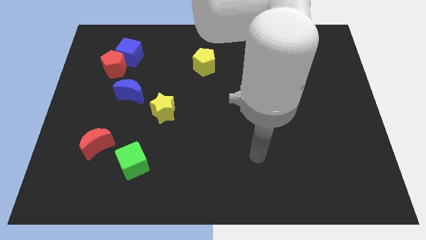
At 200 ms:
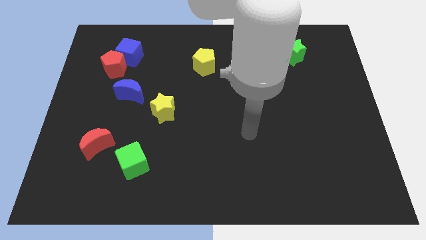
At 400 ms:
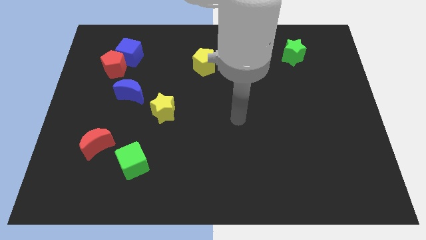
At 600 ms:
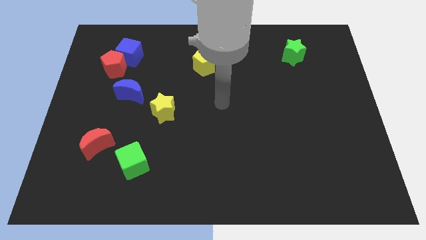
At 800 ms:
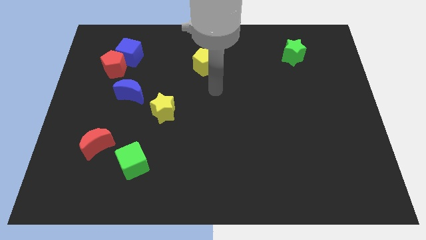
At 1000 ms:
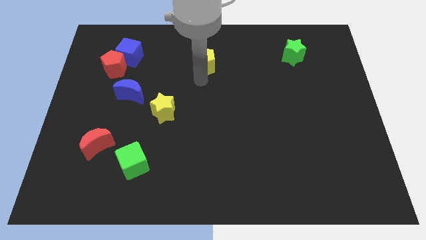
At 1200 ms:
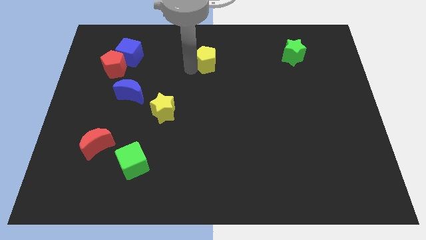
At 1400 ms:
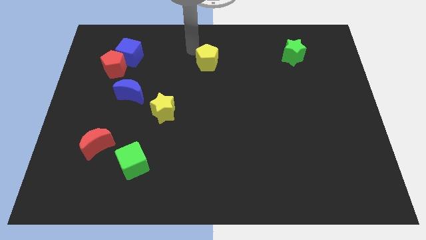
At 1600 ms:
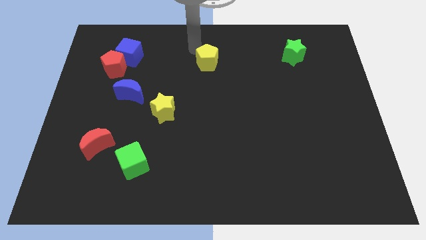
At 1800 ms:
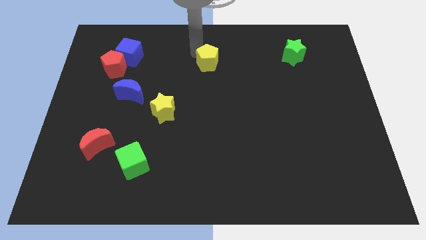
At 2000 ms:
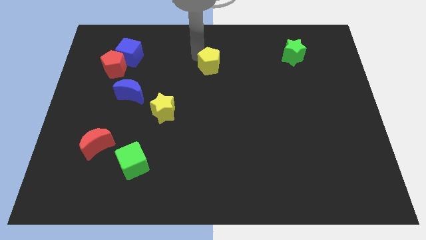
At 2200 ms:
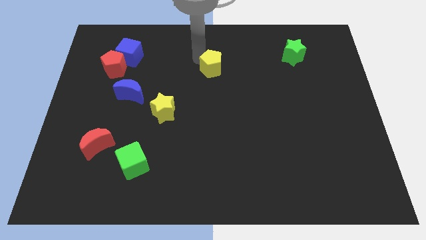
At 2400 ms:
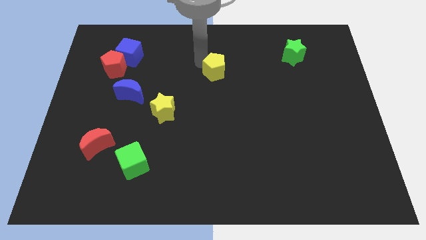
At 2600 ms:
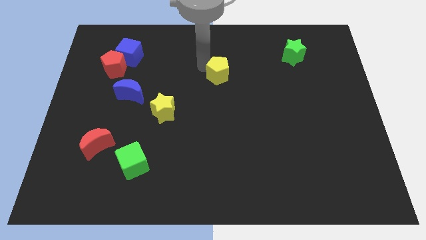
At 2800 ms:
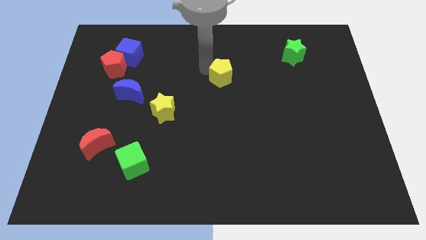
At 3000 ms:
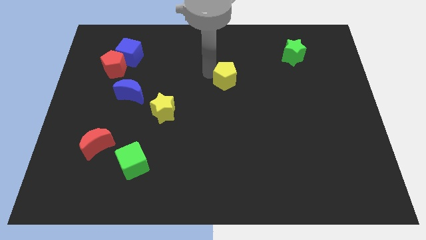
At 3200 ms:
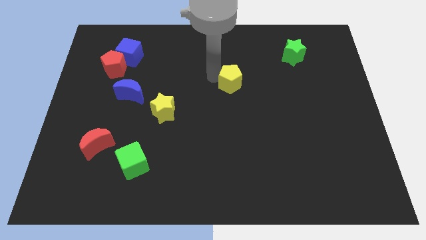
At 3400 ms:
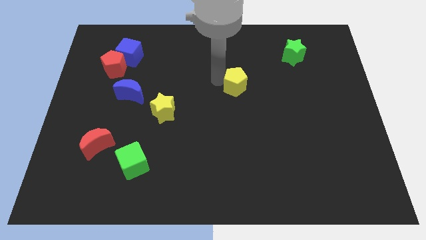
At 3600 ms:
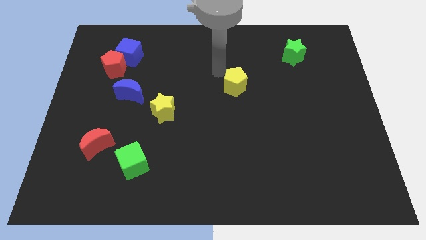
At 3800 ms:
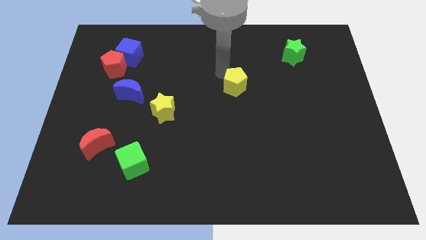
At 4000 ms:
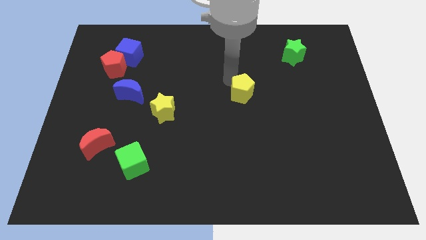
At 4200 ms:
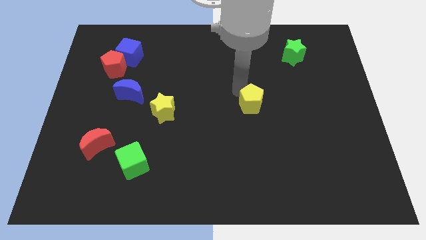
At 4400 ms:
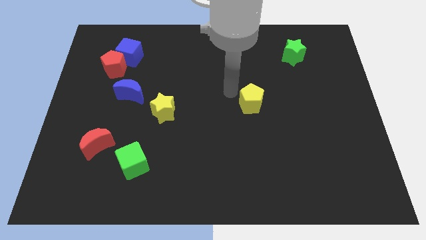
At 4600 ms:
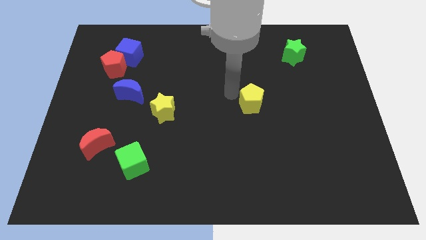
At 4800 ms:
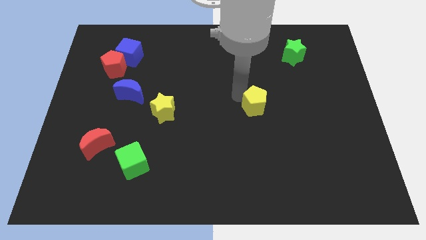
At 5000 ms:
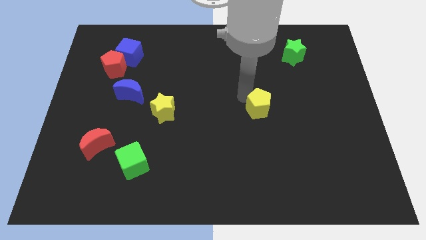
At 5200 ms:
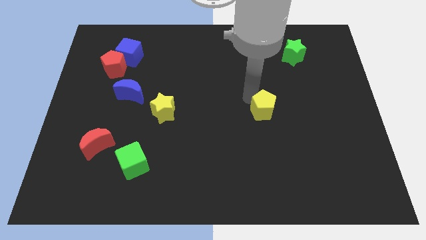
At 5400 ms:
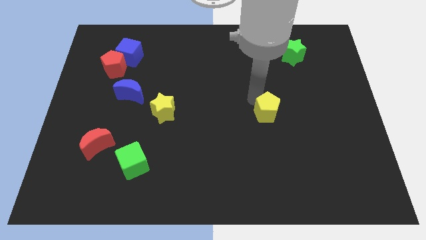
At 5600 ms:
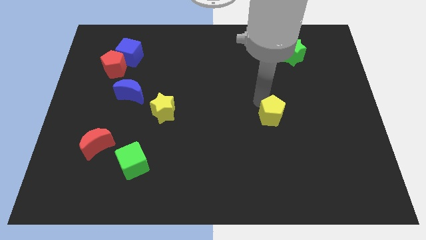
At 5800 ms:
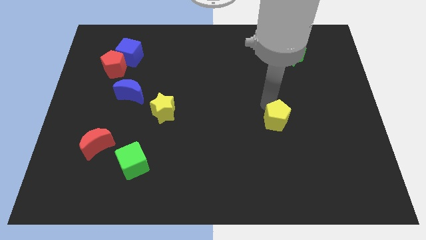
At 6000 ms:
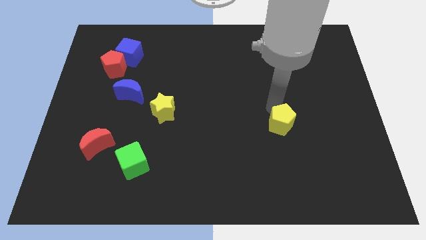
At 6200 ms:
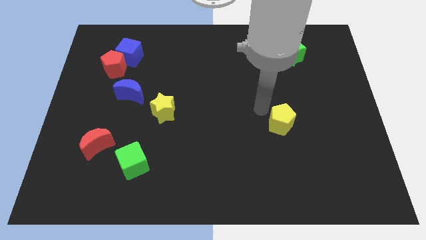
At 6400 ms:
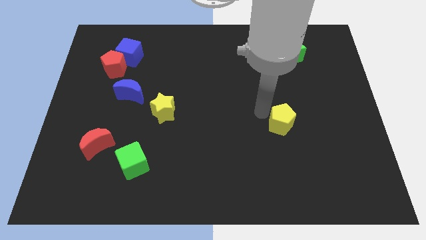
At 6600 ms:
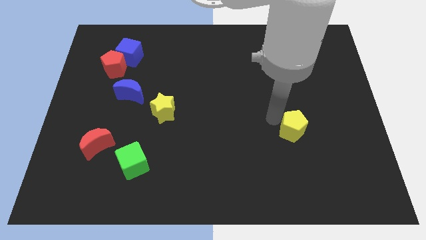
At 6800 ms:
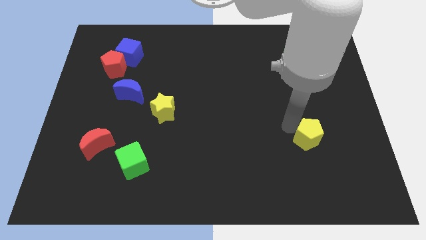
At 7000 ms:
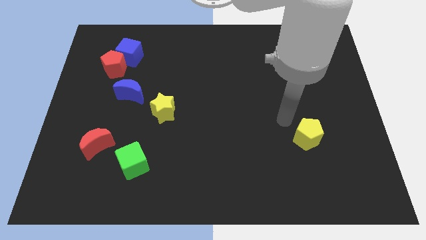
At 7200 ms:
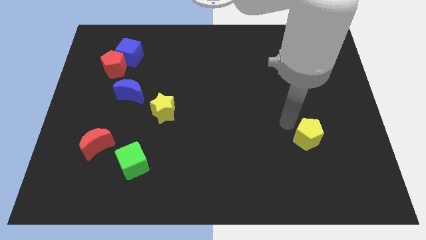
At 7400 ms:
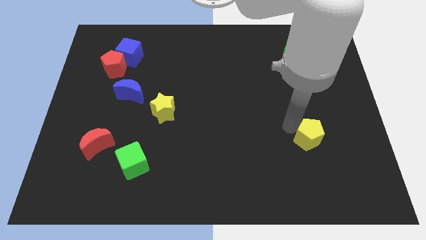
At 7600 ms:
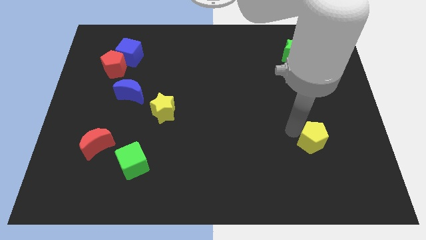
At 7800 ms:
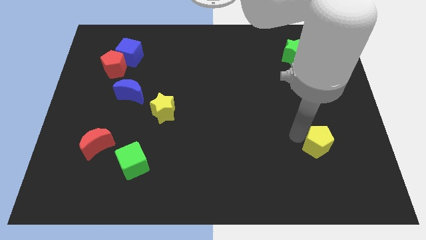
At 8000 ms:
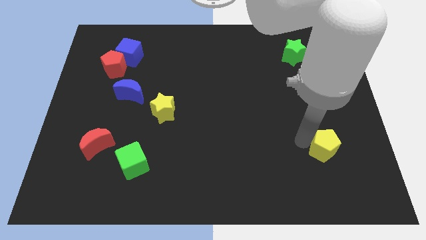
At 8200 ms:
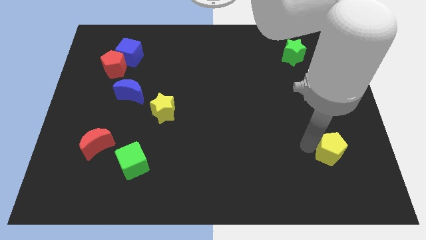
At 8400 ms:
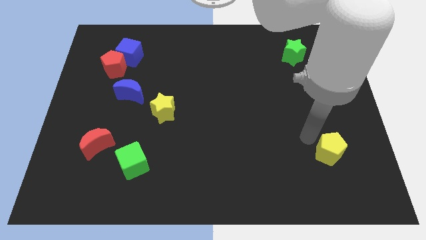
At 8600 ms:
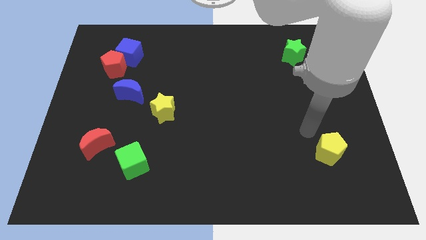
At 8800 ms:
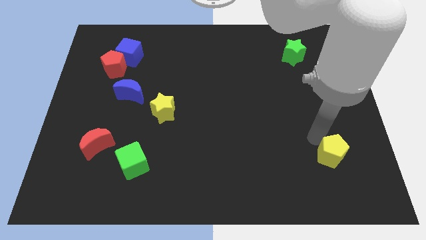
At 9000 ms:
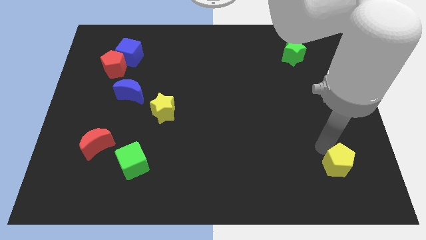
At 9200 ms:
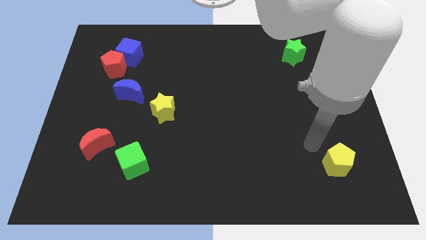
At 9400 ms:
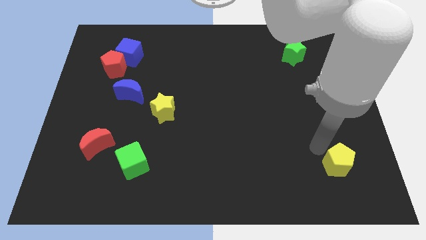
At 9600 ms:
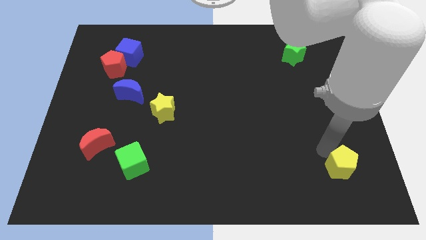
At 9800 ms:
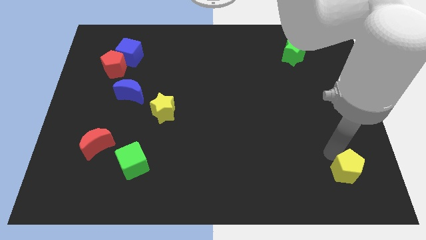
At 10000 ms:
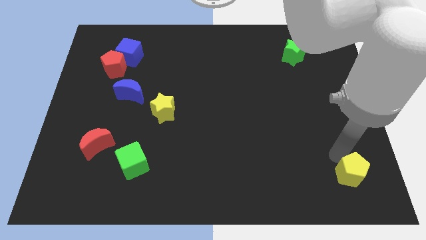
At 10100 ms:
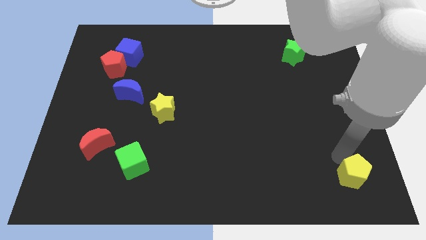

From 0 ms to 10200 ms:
push the yellow pentagon to the bottom right corner

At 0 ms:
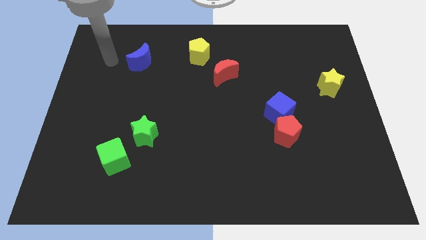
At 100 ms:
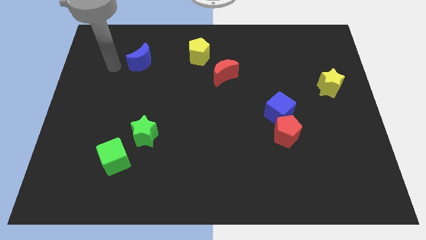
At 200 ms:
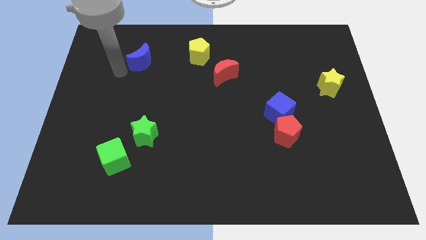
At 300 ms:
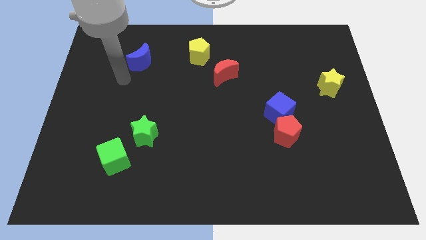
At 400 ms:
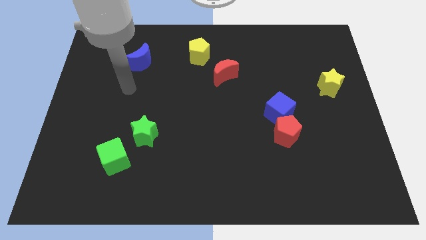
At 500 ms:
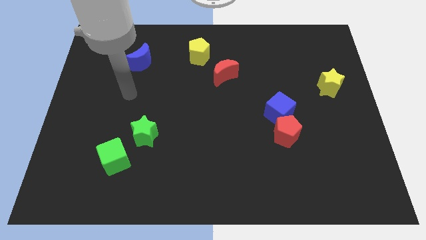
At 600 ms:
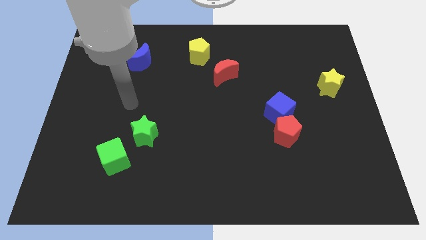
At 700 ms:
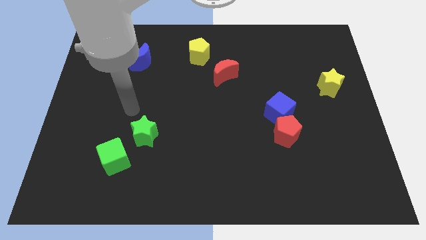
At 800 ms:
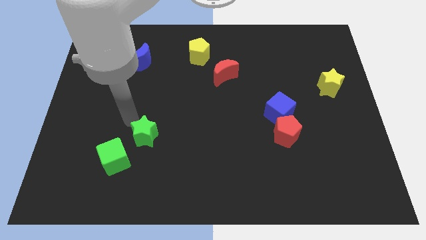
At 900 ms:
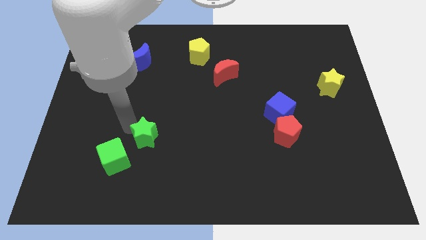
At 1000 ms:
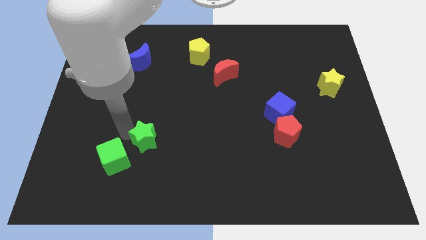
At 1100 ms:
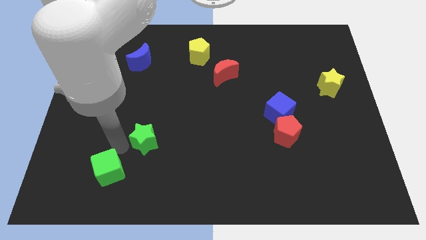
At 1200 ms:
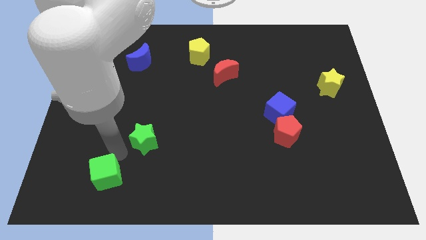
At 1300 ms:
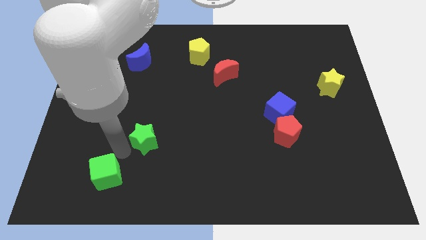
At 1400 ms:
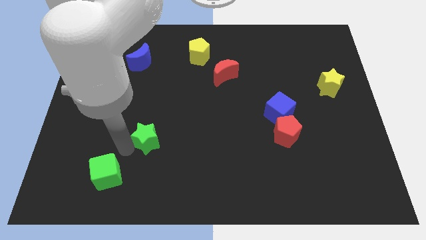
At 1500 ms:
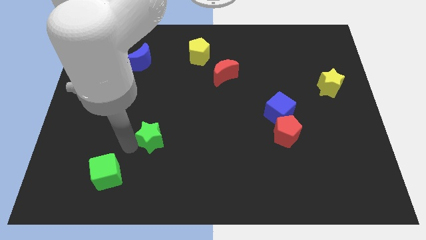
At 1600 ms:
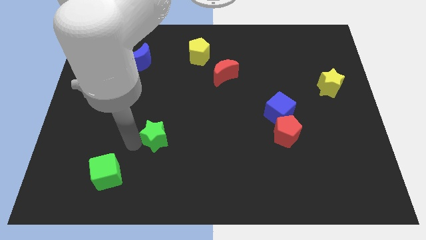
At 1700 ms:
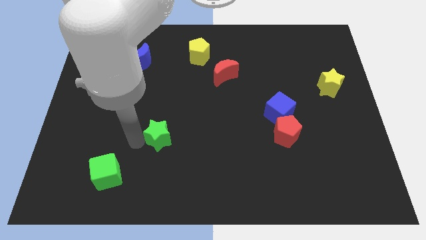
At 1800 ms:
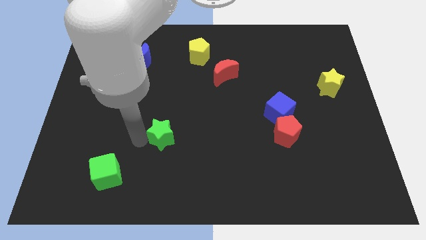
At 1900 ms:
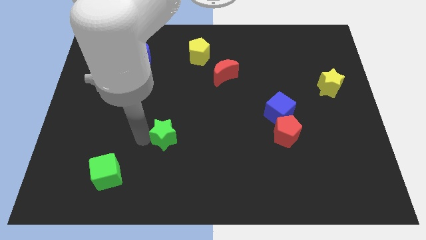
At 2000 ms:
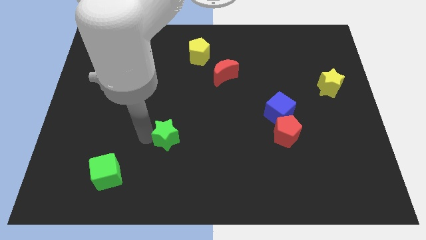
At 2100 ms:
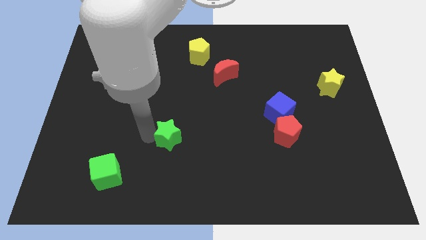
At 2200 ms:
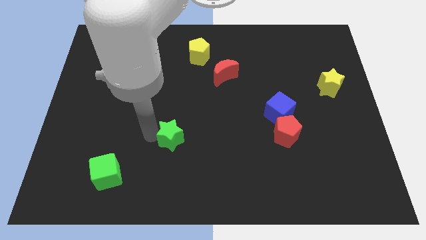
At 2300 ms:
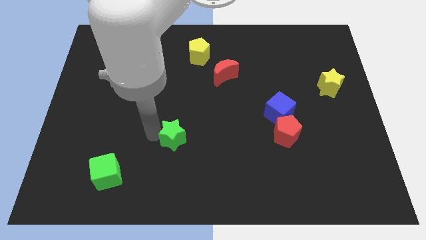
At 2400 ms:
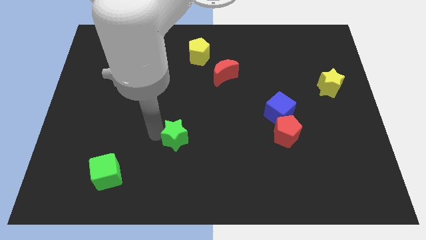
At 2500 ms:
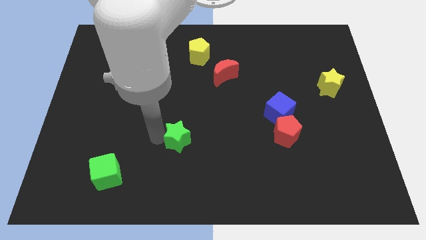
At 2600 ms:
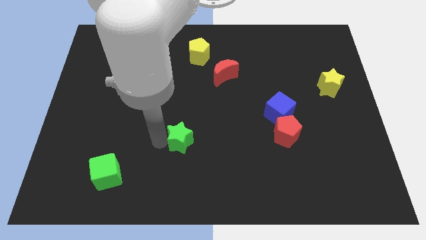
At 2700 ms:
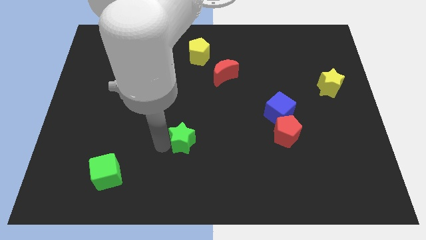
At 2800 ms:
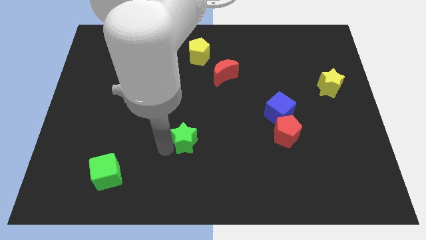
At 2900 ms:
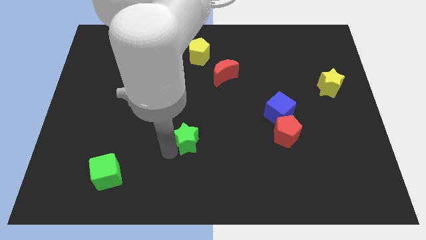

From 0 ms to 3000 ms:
put the green star to the middle of the board
